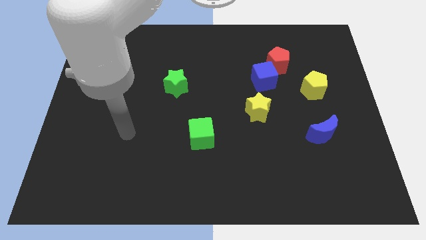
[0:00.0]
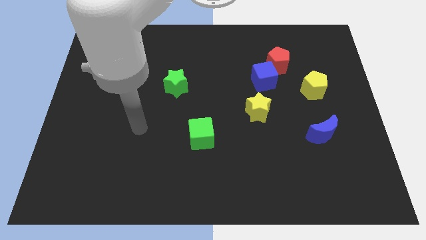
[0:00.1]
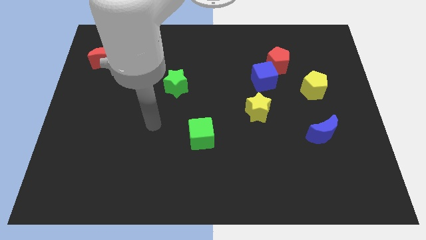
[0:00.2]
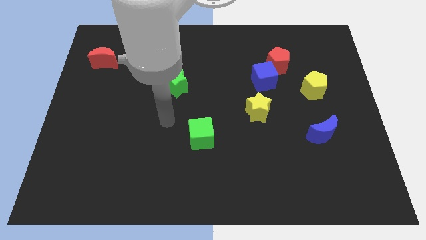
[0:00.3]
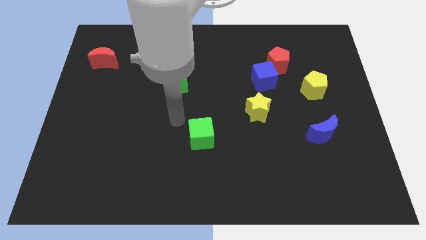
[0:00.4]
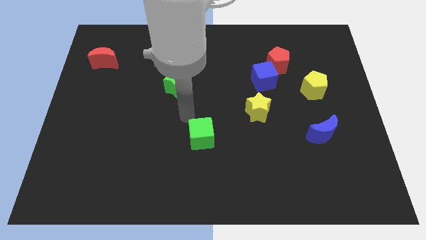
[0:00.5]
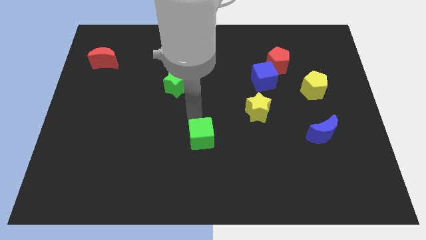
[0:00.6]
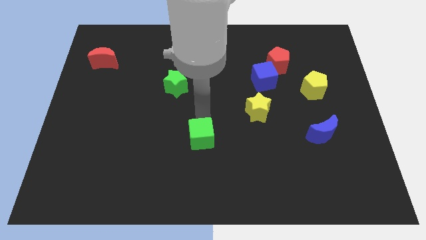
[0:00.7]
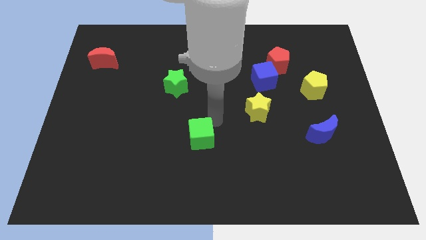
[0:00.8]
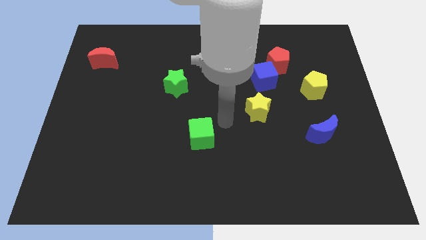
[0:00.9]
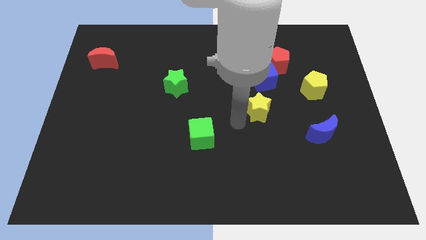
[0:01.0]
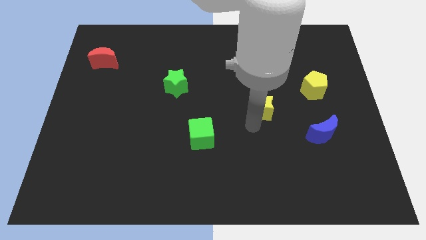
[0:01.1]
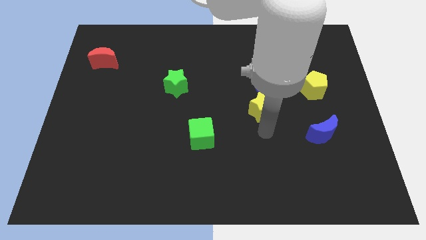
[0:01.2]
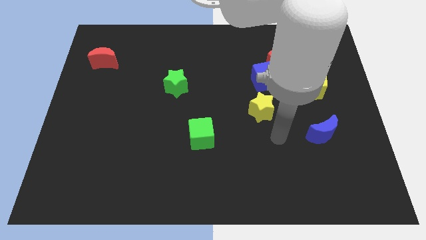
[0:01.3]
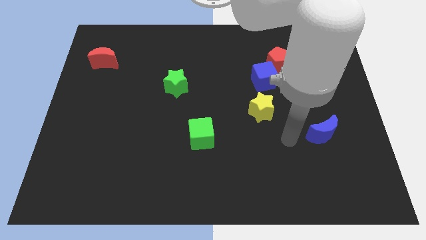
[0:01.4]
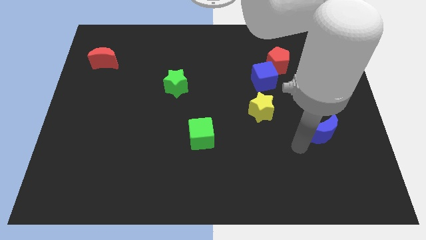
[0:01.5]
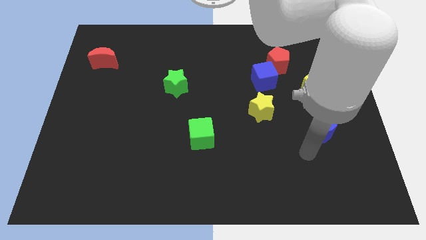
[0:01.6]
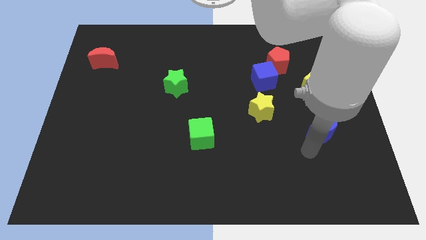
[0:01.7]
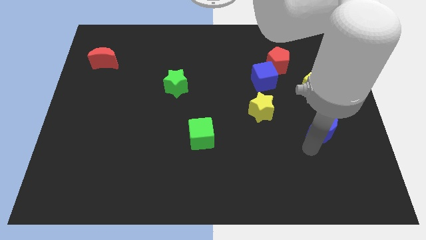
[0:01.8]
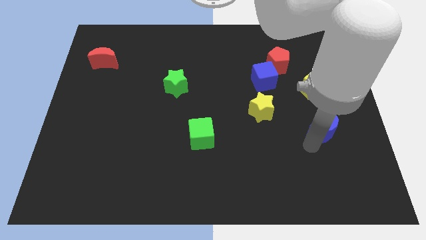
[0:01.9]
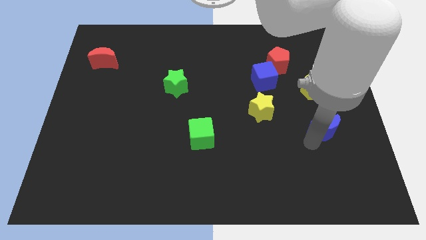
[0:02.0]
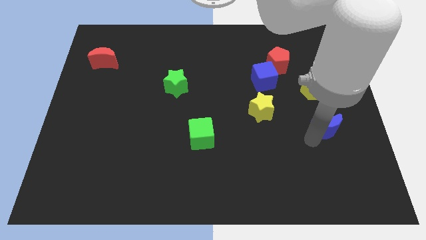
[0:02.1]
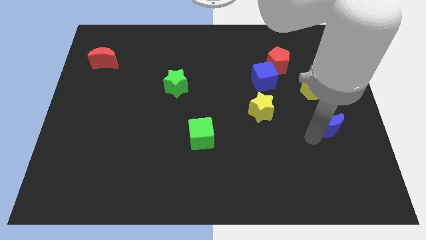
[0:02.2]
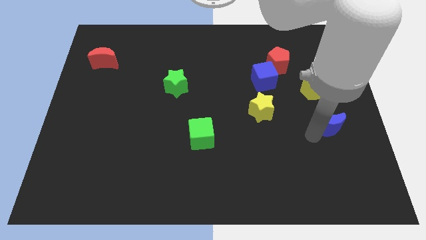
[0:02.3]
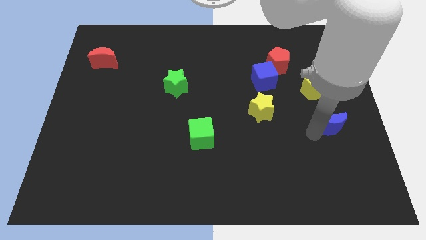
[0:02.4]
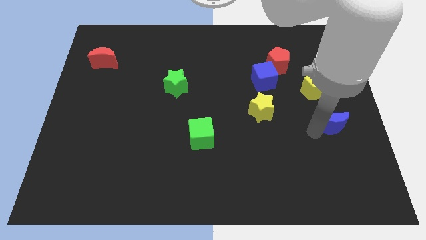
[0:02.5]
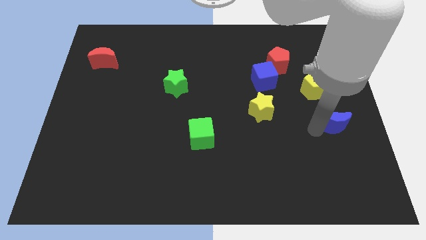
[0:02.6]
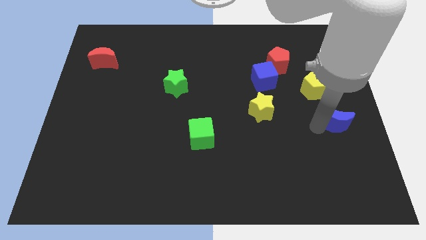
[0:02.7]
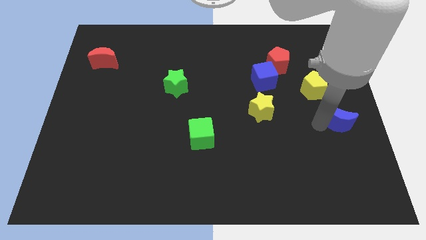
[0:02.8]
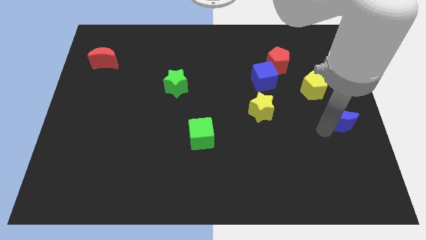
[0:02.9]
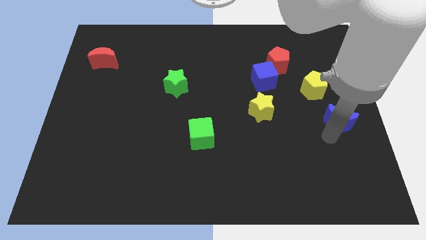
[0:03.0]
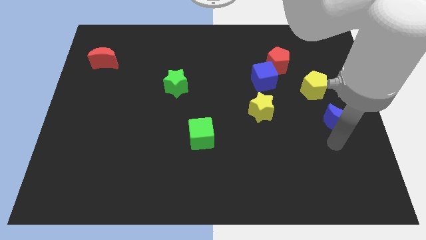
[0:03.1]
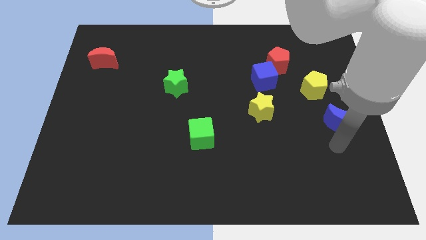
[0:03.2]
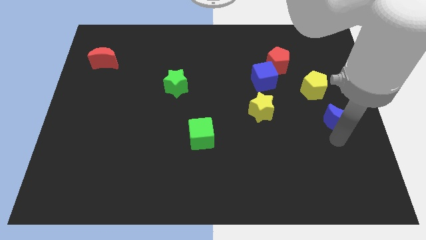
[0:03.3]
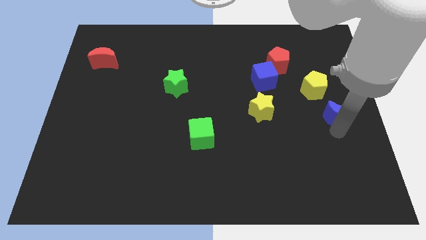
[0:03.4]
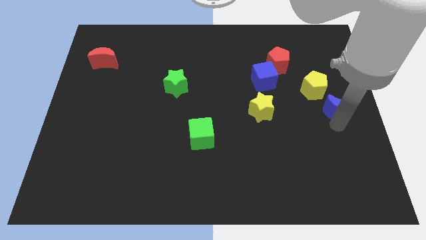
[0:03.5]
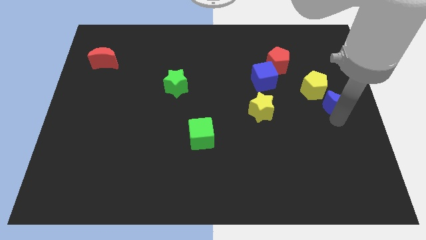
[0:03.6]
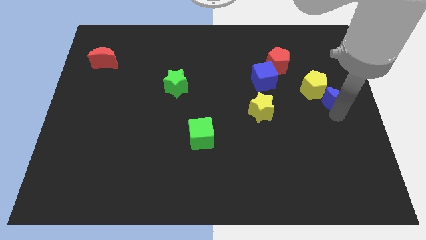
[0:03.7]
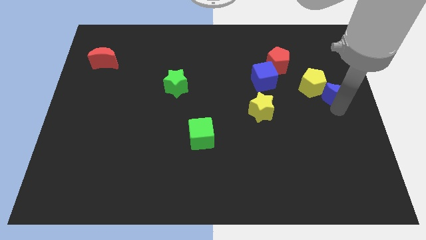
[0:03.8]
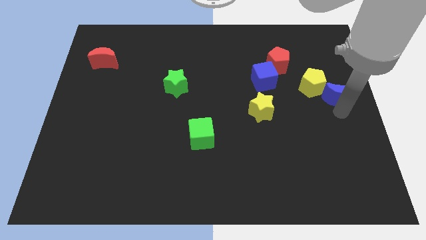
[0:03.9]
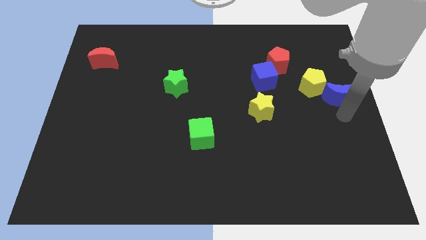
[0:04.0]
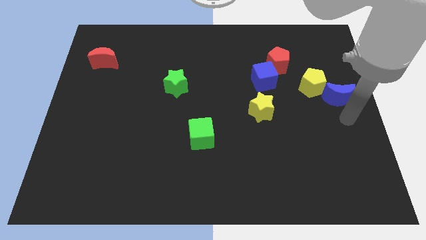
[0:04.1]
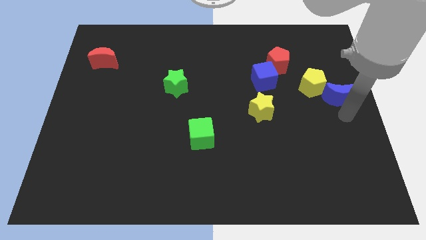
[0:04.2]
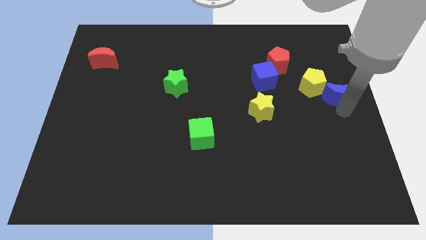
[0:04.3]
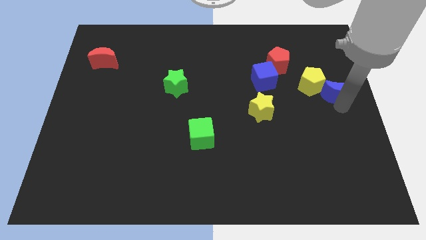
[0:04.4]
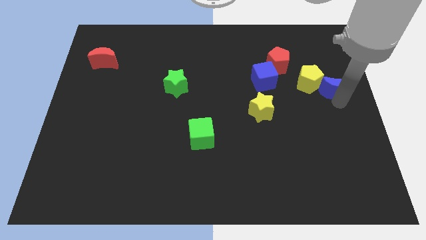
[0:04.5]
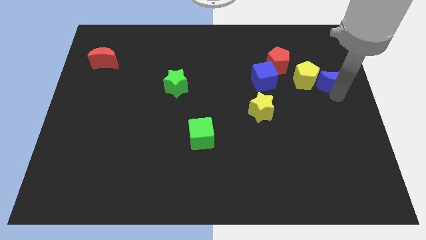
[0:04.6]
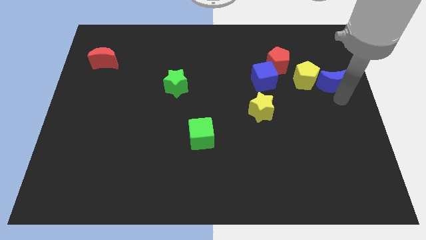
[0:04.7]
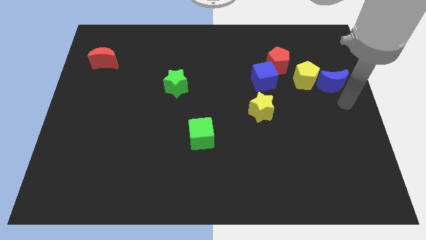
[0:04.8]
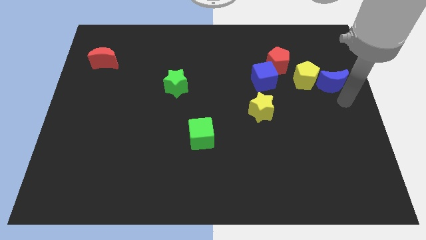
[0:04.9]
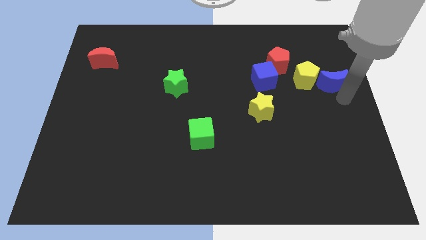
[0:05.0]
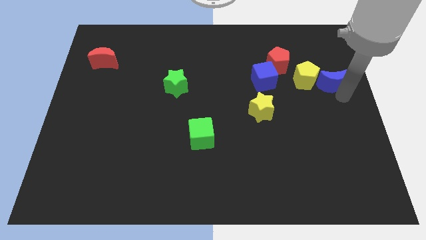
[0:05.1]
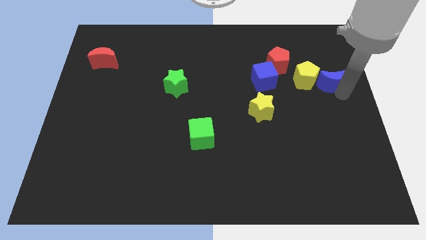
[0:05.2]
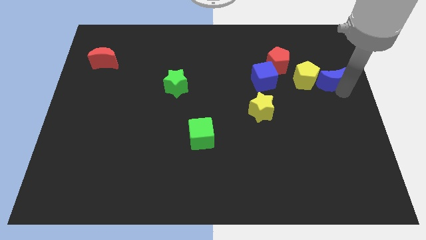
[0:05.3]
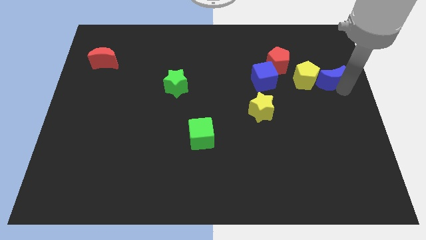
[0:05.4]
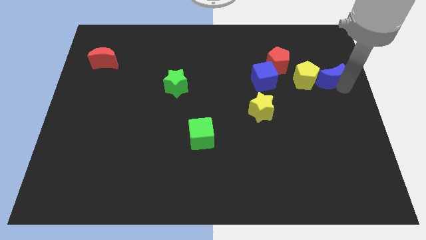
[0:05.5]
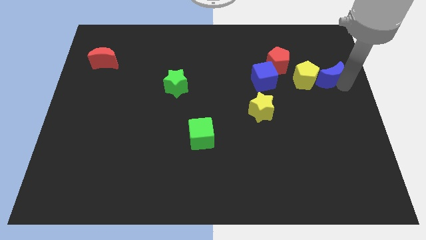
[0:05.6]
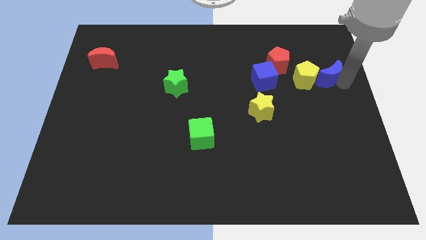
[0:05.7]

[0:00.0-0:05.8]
slide the blue moon to the right of the red pentagon

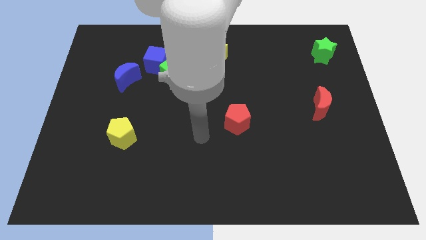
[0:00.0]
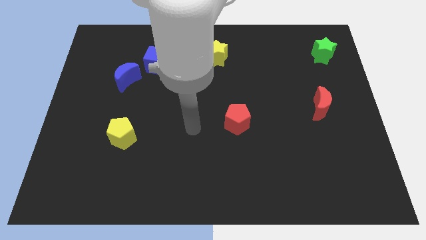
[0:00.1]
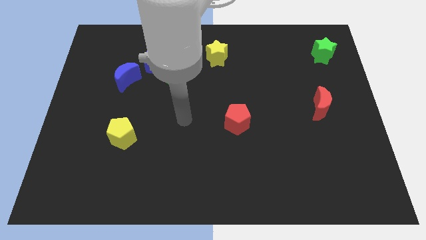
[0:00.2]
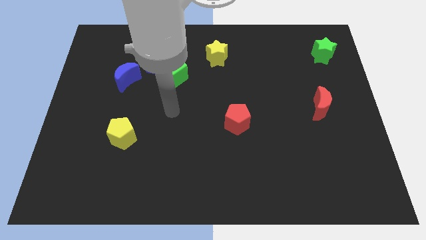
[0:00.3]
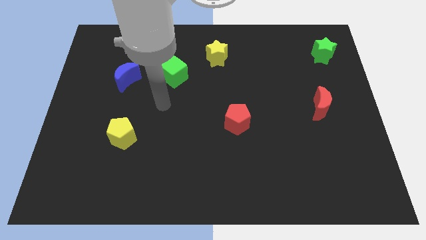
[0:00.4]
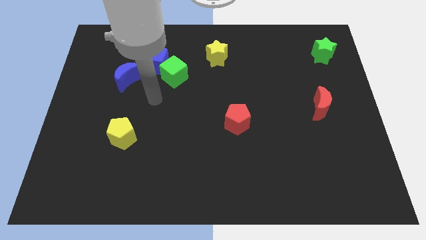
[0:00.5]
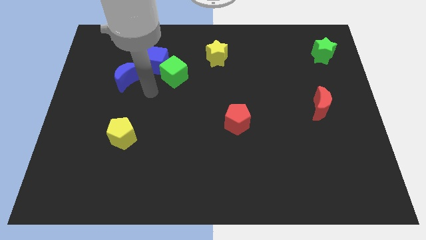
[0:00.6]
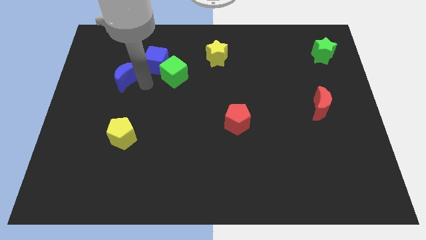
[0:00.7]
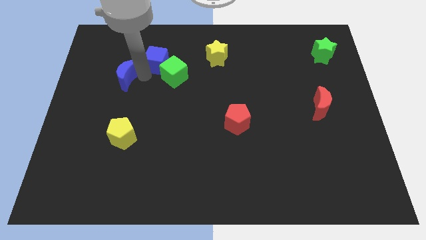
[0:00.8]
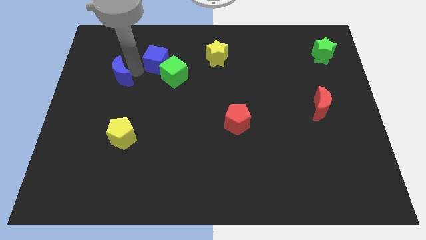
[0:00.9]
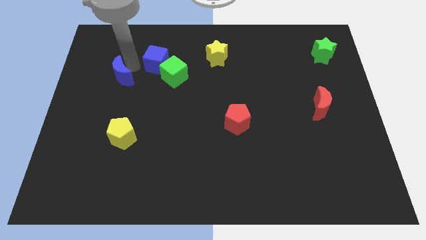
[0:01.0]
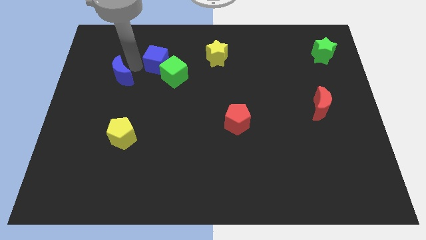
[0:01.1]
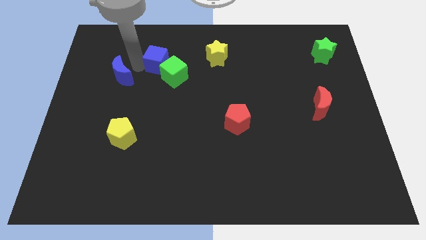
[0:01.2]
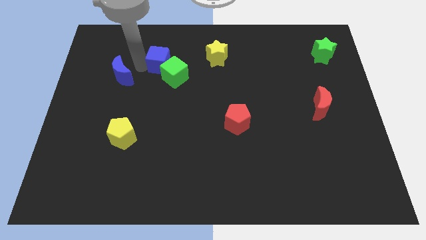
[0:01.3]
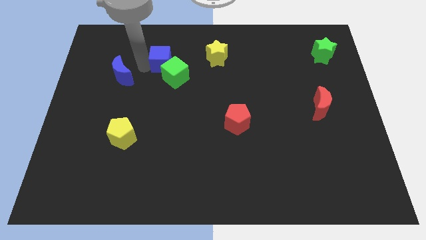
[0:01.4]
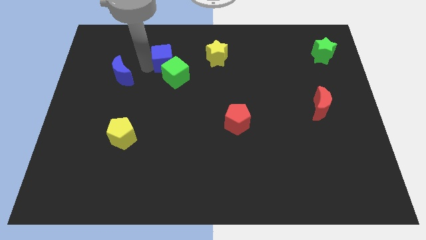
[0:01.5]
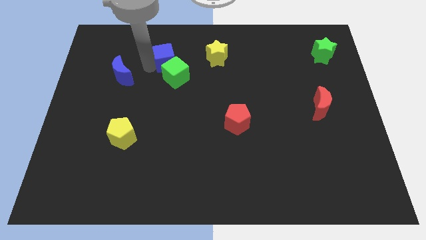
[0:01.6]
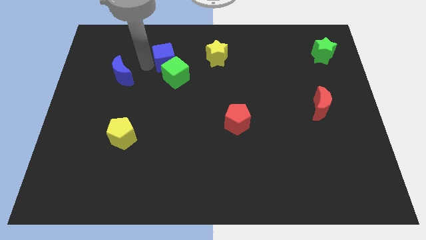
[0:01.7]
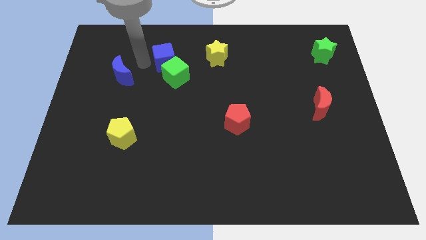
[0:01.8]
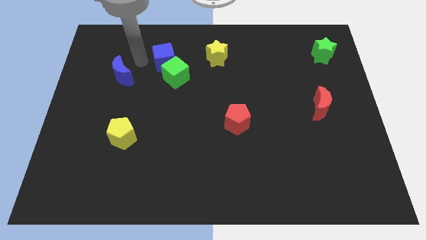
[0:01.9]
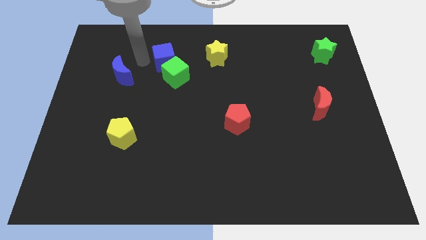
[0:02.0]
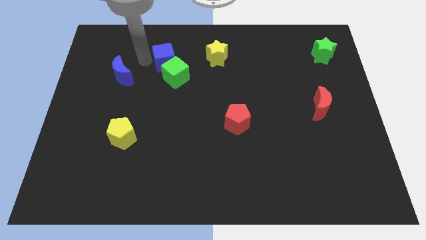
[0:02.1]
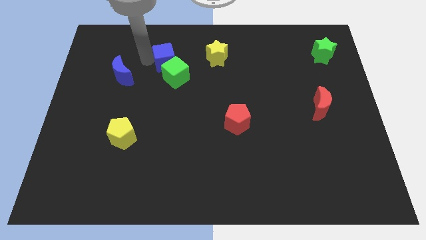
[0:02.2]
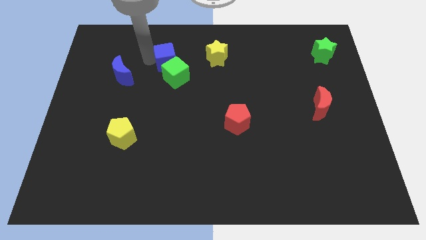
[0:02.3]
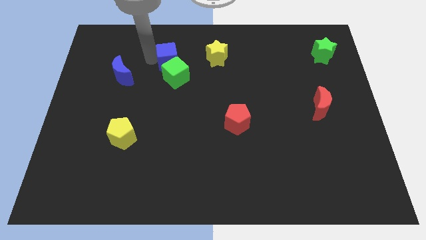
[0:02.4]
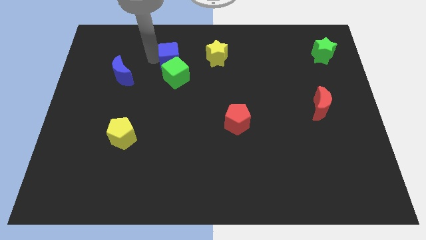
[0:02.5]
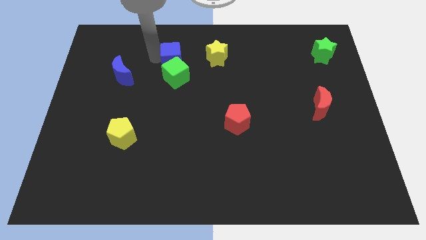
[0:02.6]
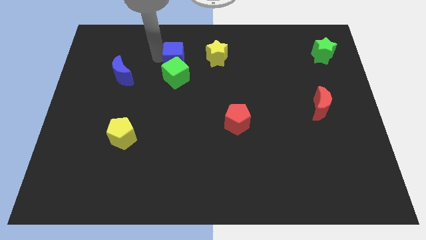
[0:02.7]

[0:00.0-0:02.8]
put the blue cube to the top right of the green cube
